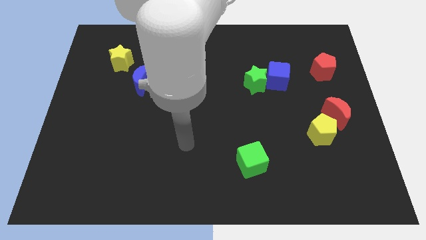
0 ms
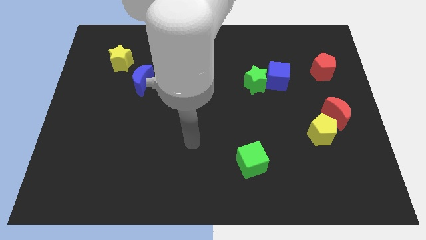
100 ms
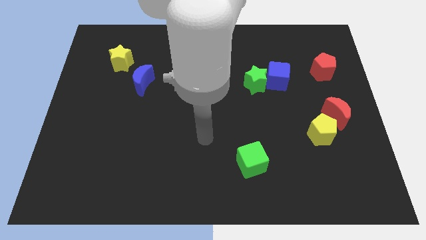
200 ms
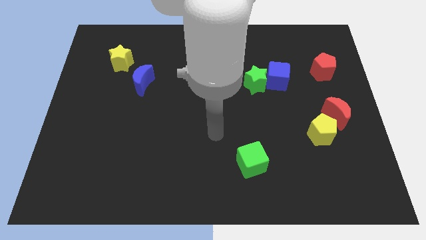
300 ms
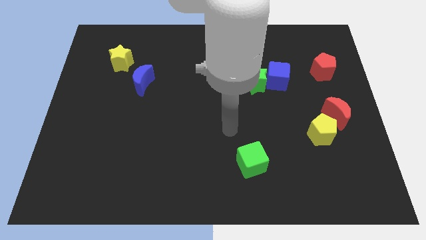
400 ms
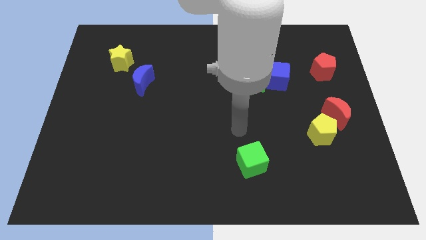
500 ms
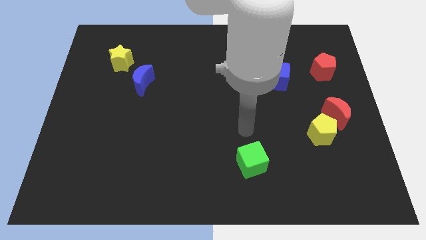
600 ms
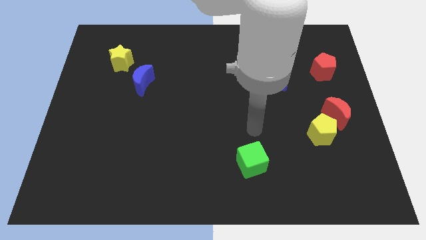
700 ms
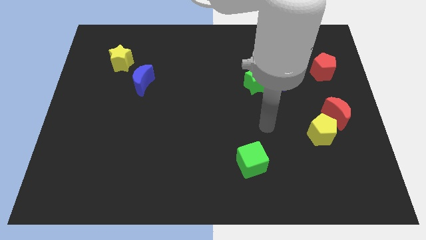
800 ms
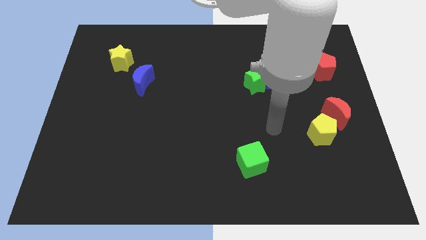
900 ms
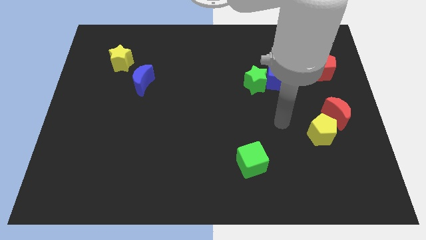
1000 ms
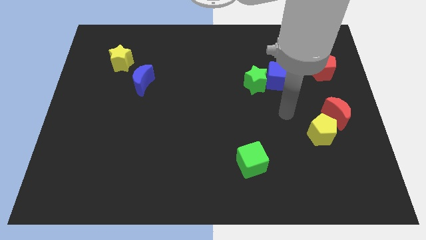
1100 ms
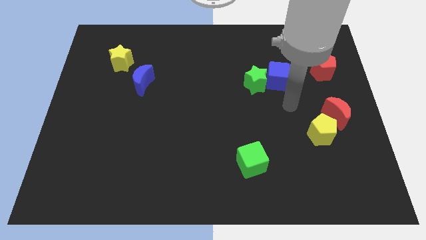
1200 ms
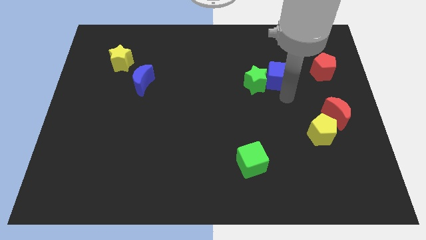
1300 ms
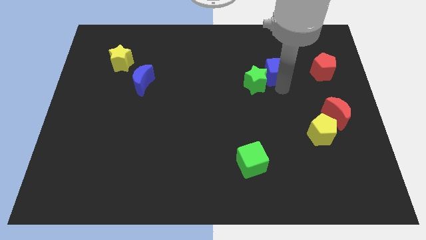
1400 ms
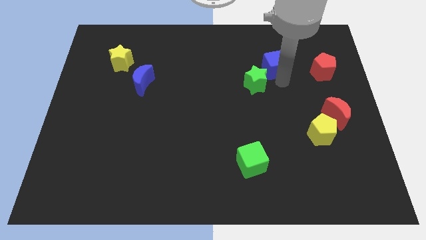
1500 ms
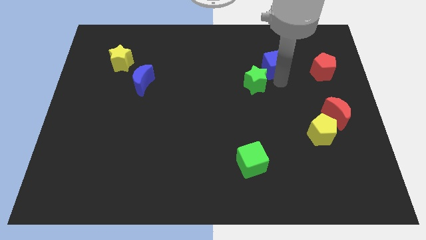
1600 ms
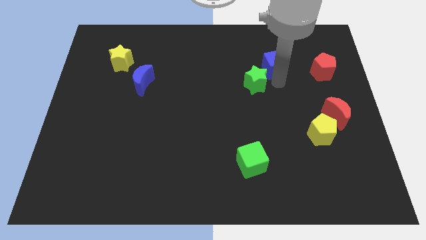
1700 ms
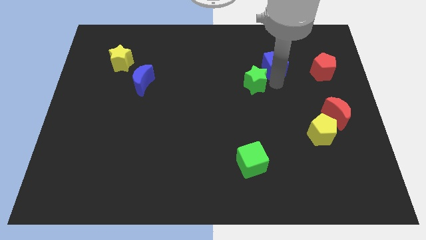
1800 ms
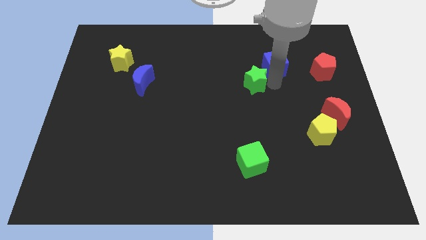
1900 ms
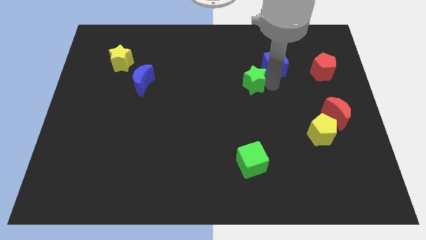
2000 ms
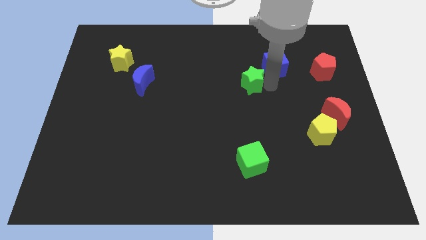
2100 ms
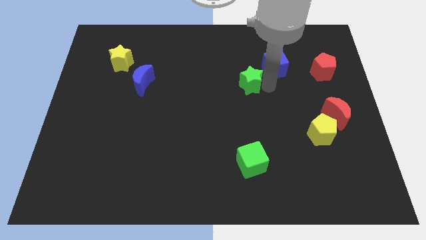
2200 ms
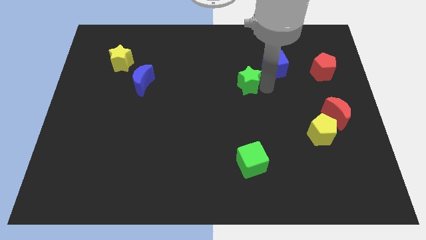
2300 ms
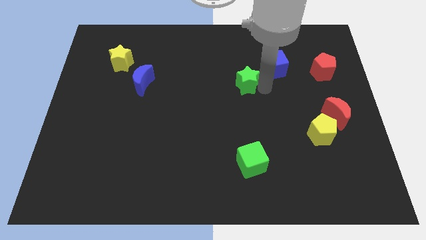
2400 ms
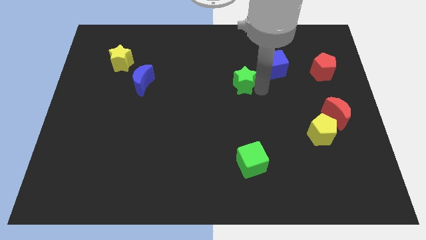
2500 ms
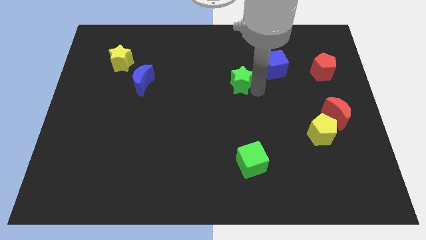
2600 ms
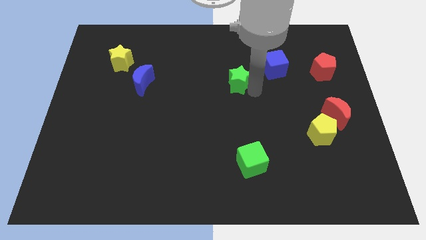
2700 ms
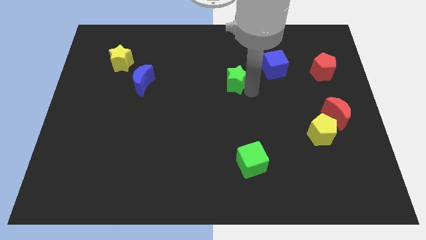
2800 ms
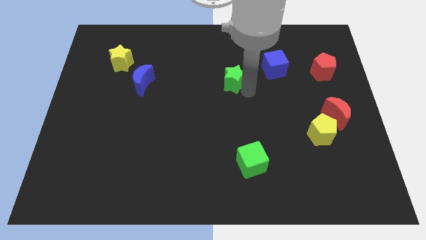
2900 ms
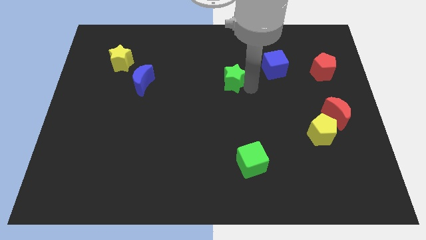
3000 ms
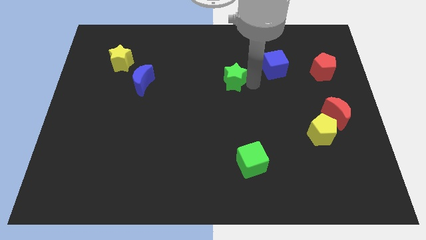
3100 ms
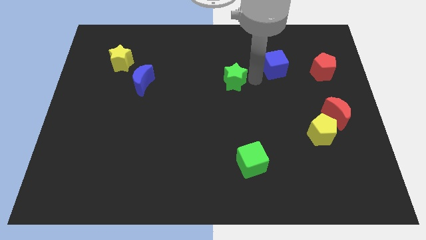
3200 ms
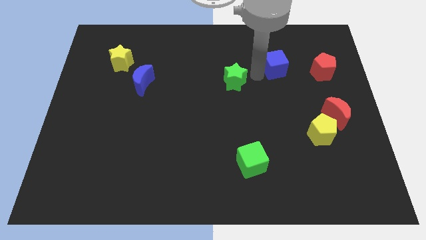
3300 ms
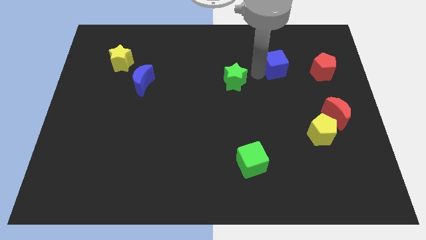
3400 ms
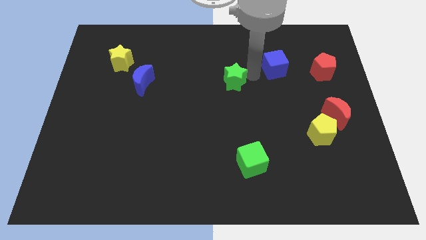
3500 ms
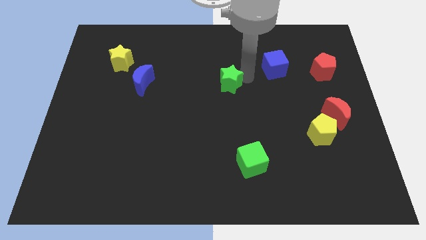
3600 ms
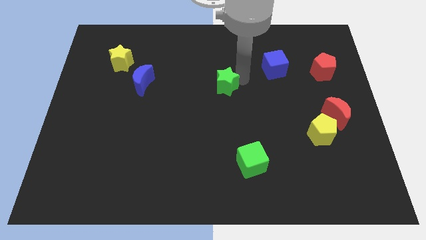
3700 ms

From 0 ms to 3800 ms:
slightly push the green star left

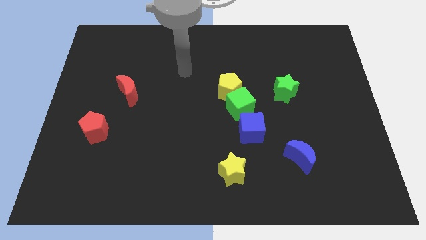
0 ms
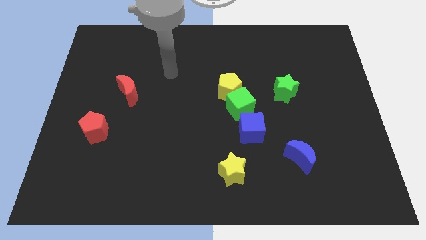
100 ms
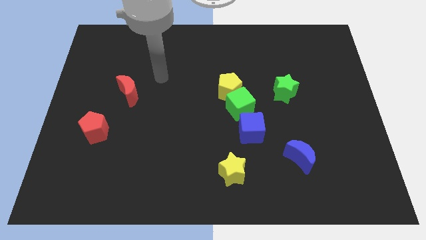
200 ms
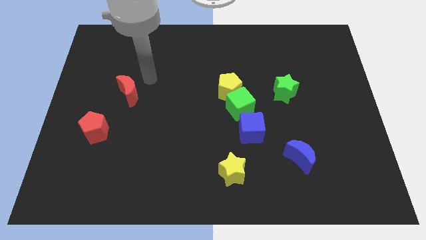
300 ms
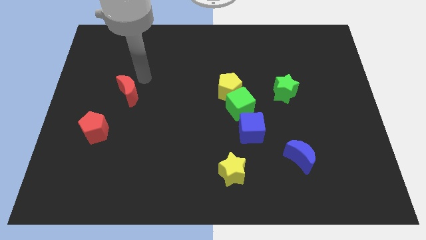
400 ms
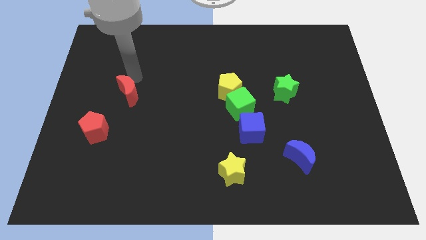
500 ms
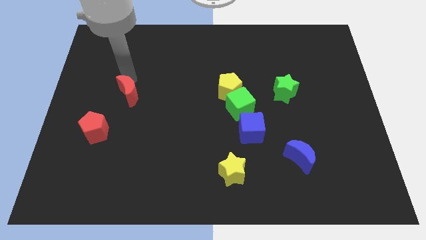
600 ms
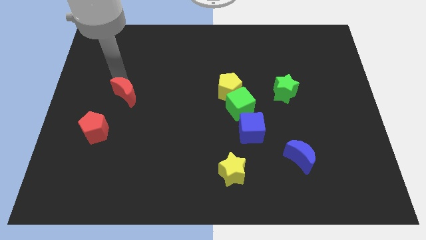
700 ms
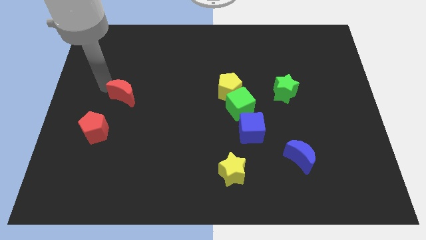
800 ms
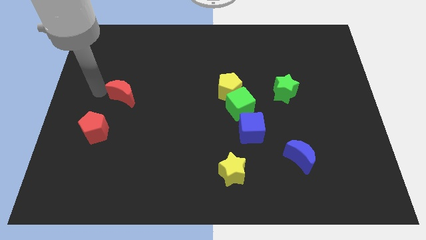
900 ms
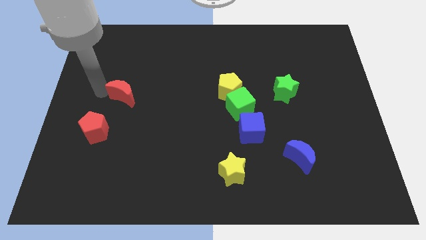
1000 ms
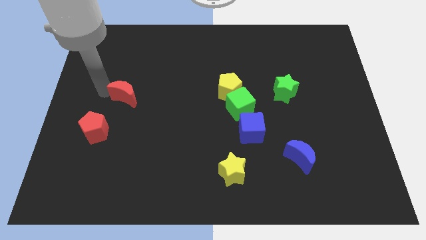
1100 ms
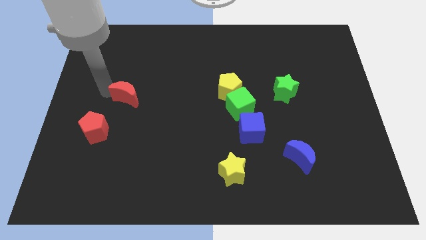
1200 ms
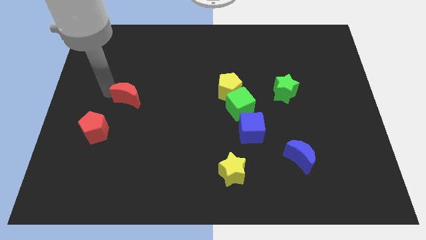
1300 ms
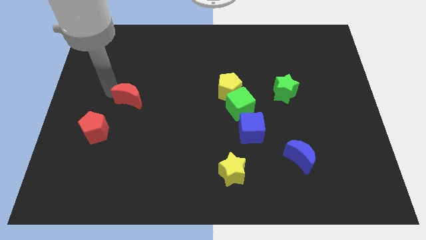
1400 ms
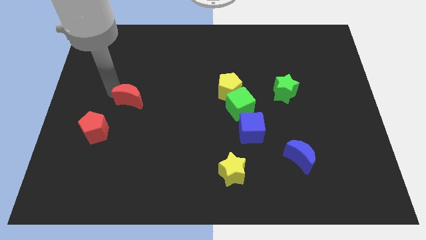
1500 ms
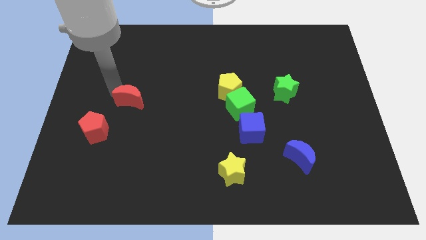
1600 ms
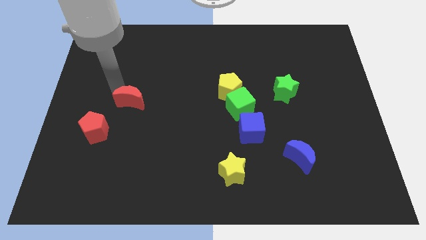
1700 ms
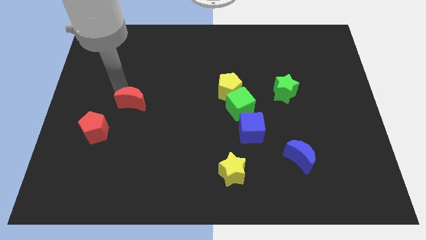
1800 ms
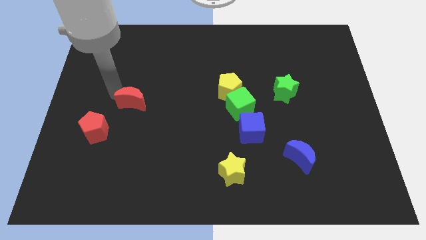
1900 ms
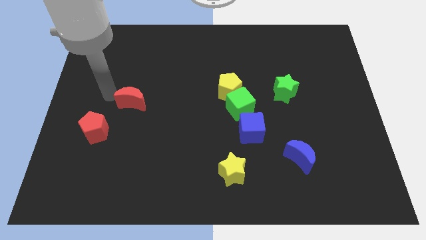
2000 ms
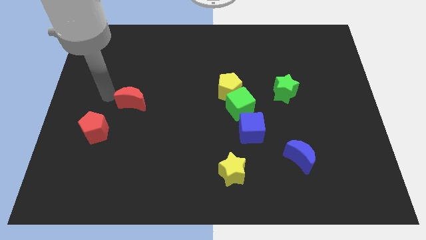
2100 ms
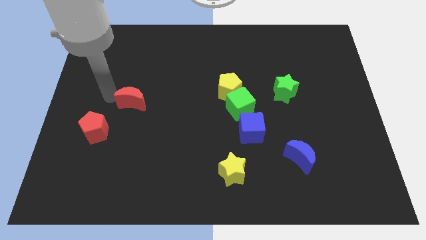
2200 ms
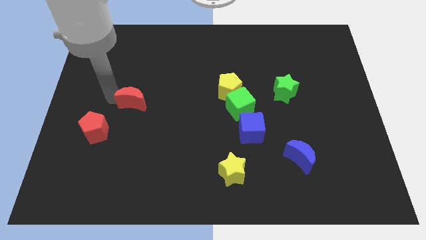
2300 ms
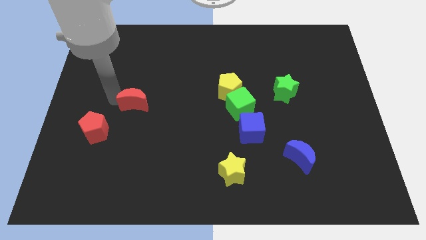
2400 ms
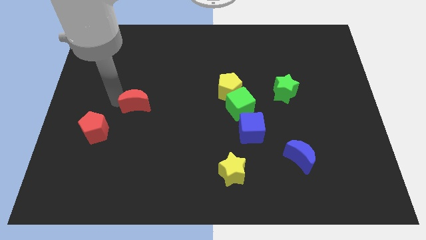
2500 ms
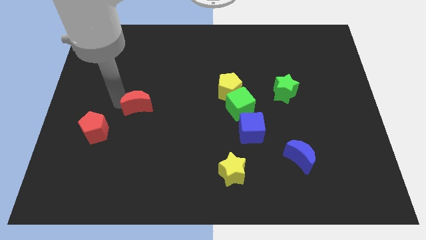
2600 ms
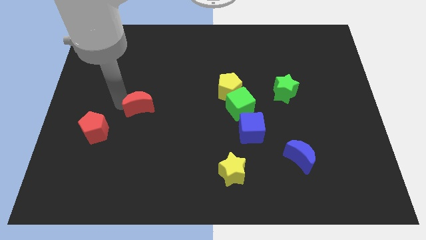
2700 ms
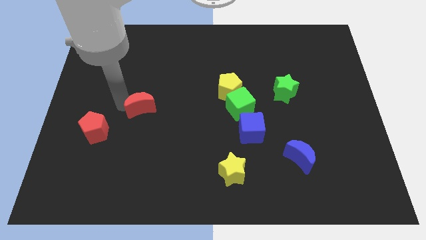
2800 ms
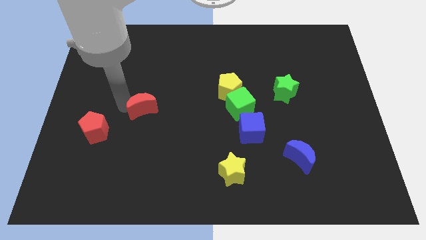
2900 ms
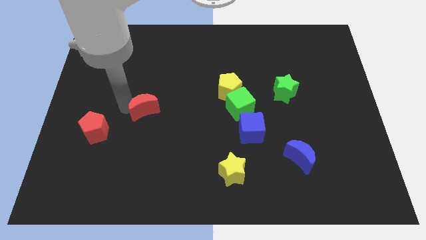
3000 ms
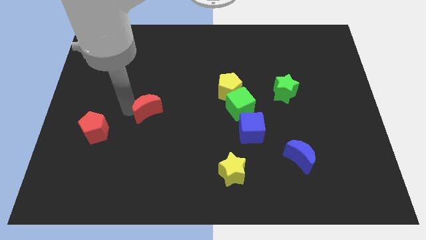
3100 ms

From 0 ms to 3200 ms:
slightly move the red moon diagonally downwards and right

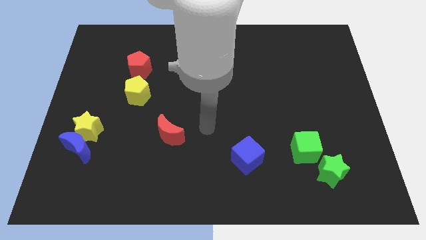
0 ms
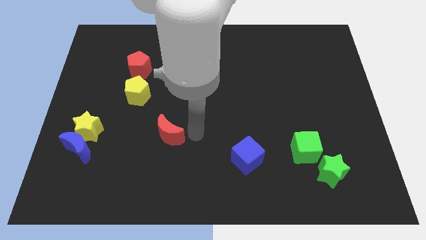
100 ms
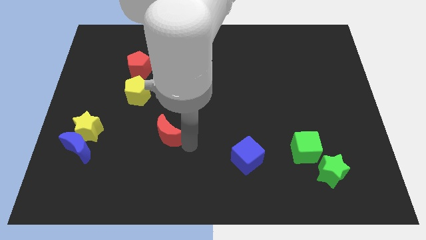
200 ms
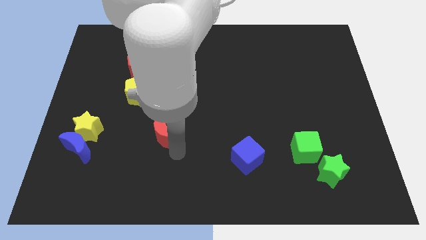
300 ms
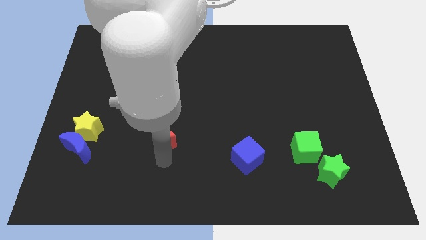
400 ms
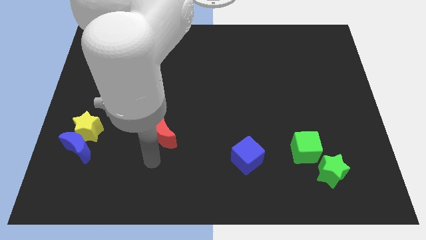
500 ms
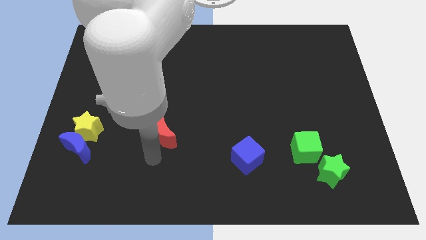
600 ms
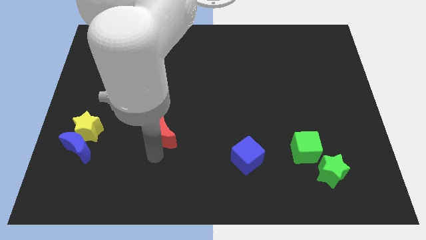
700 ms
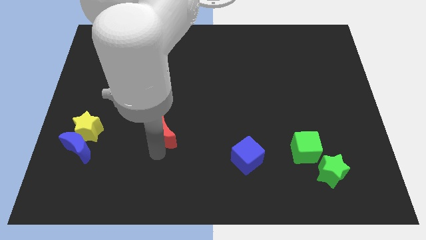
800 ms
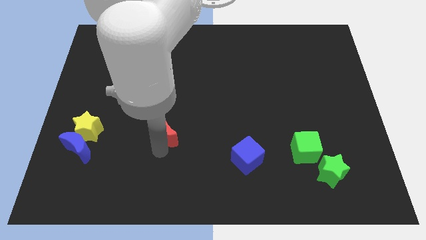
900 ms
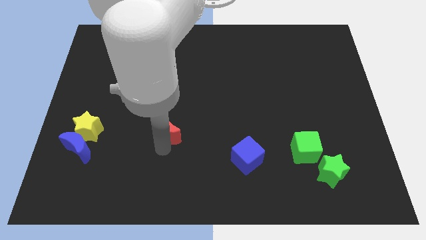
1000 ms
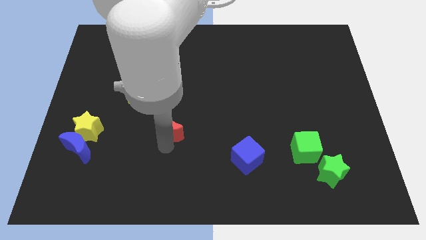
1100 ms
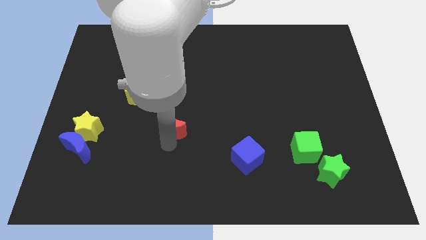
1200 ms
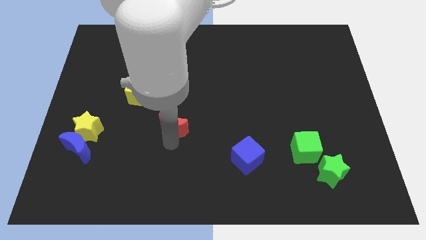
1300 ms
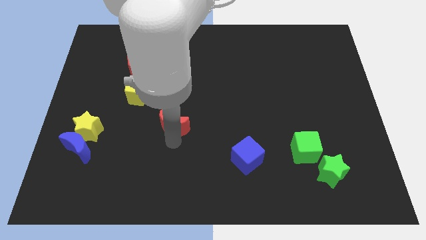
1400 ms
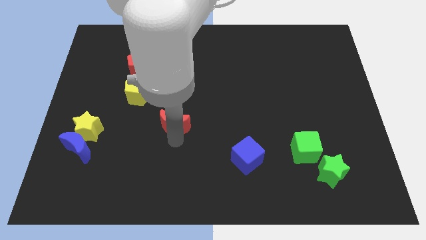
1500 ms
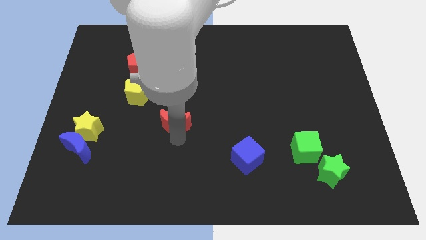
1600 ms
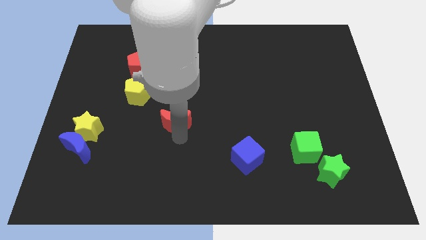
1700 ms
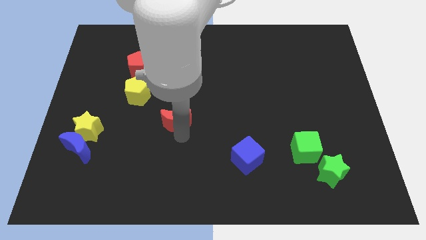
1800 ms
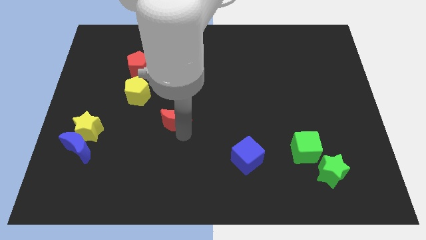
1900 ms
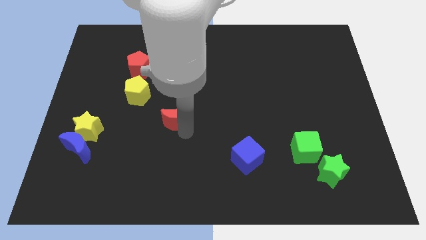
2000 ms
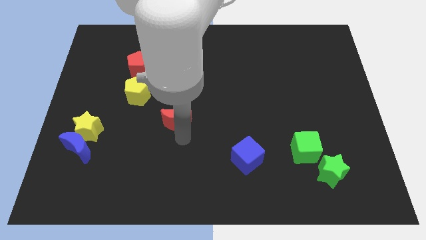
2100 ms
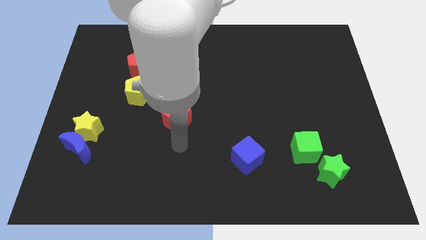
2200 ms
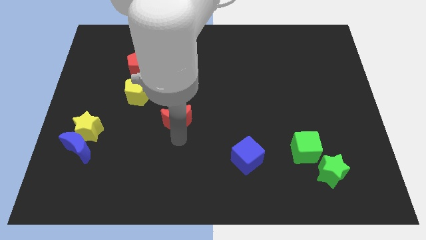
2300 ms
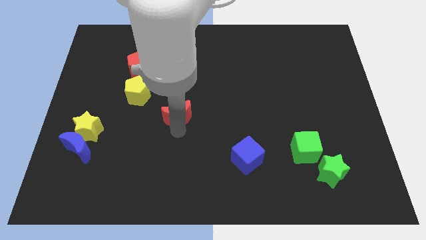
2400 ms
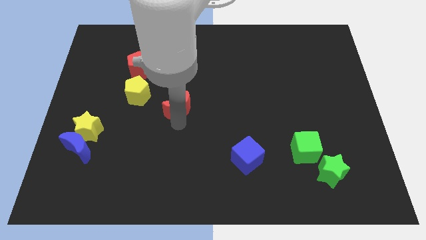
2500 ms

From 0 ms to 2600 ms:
slide the red moon upwards a little bit
